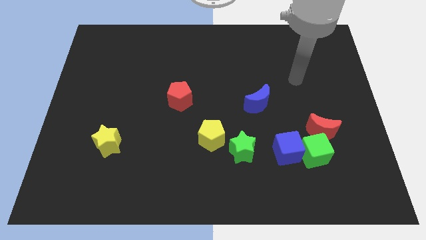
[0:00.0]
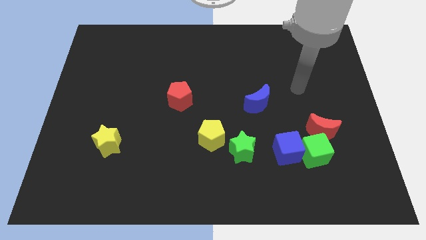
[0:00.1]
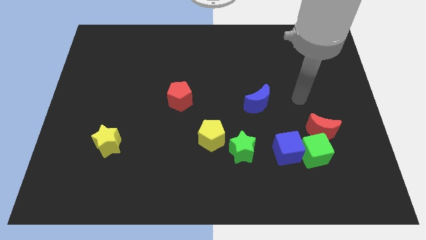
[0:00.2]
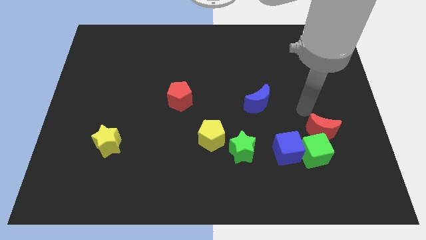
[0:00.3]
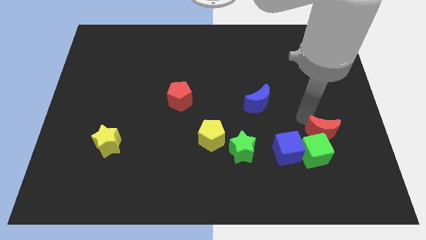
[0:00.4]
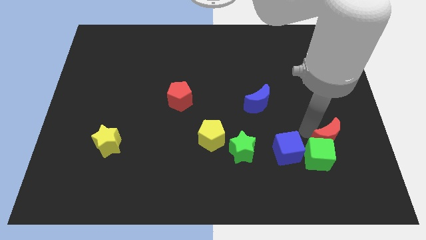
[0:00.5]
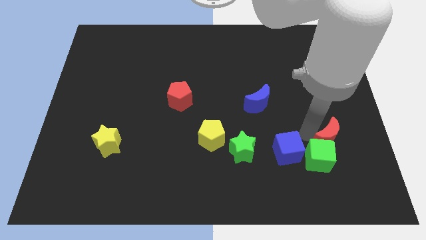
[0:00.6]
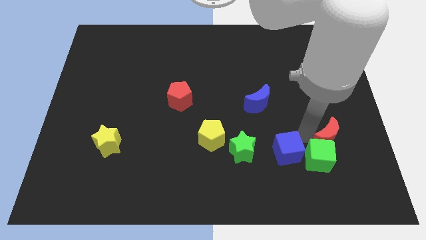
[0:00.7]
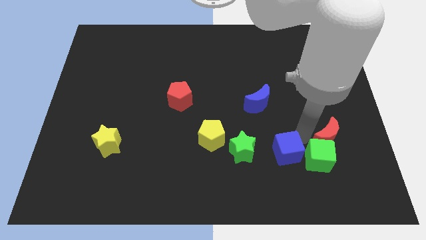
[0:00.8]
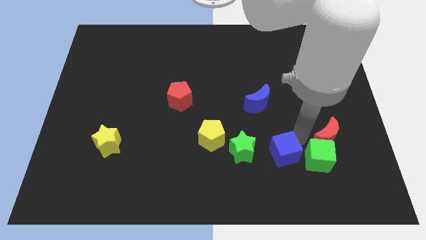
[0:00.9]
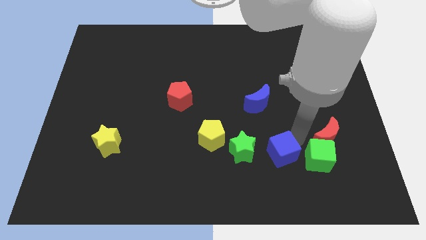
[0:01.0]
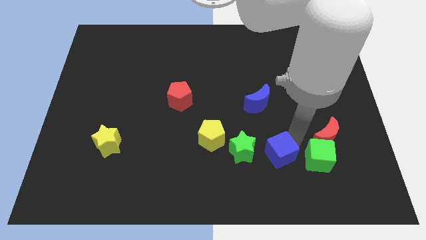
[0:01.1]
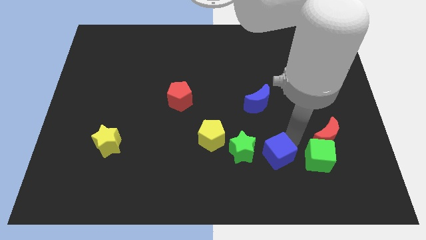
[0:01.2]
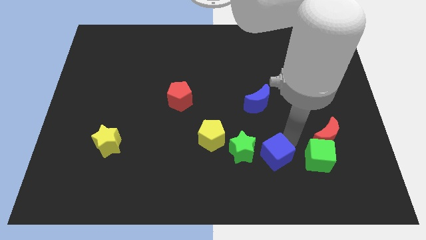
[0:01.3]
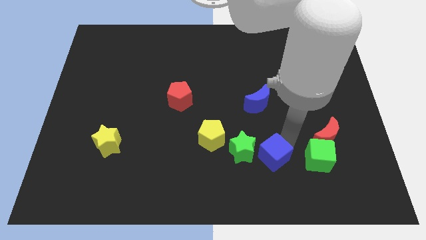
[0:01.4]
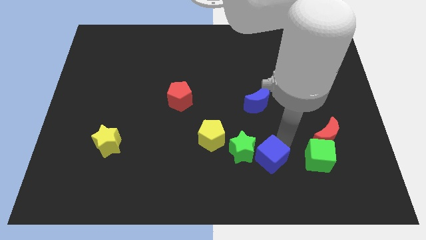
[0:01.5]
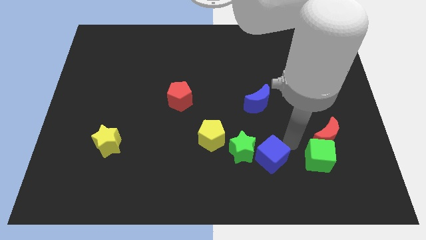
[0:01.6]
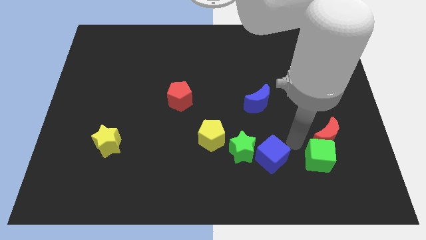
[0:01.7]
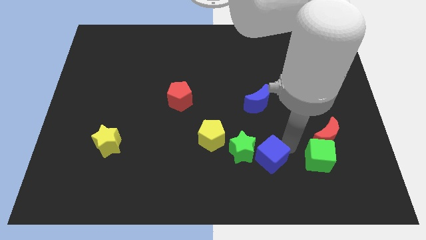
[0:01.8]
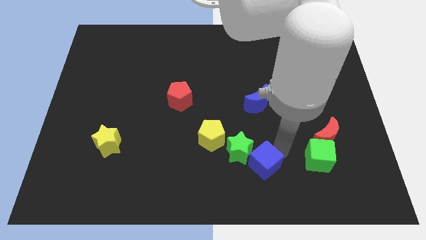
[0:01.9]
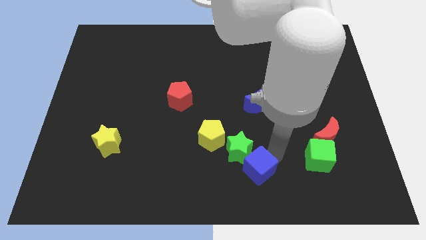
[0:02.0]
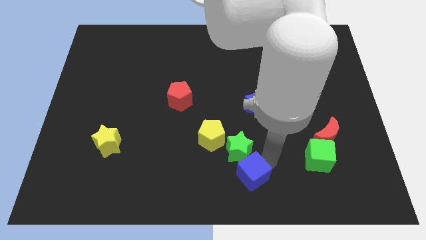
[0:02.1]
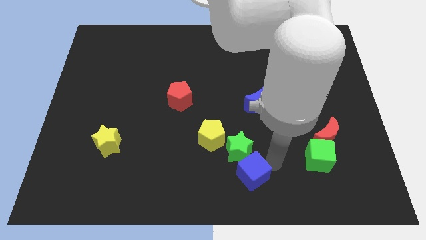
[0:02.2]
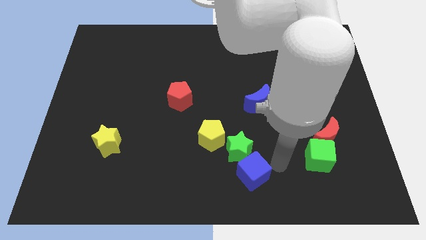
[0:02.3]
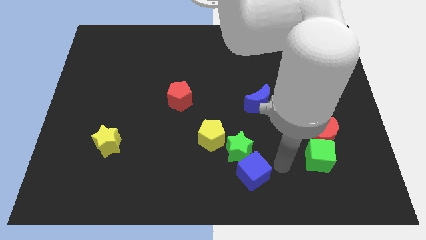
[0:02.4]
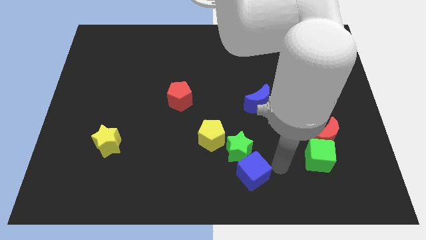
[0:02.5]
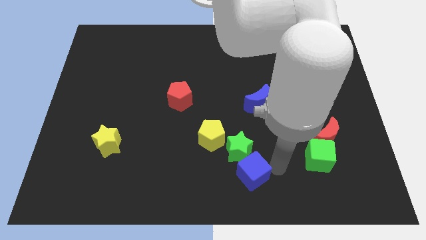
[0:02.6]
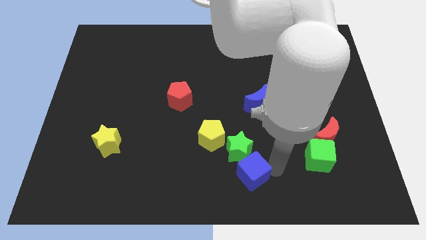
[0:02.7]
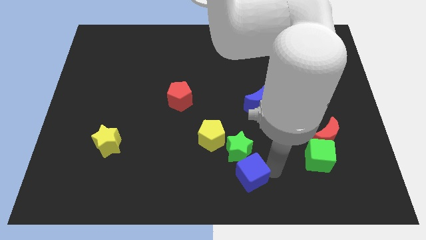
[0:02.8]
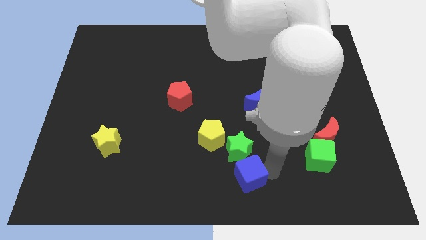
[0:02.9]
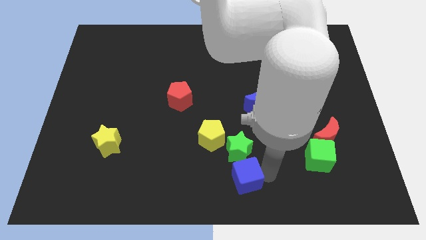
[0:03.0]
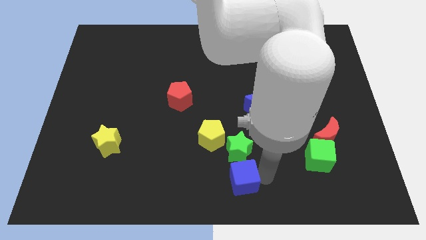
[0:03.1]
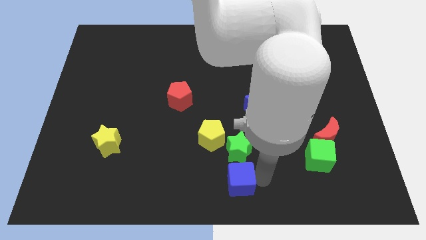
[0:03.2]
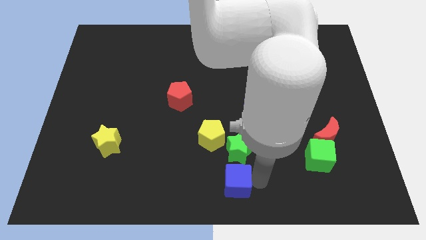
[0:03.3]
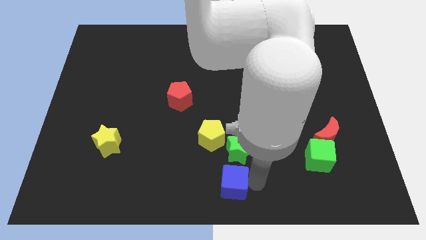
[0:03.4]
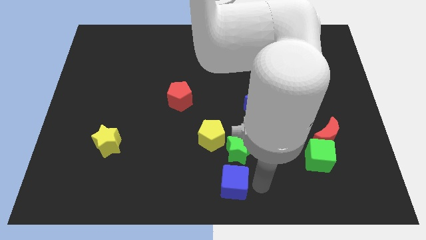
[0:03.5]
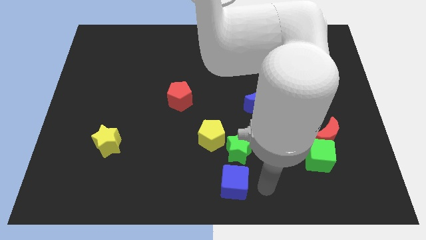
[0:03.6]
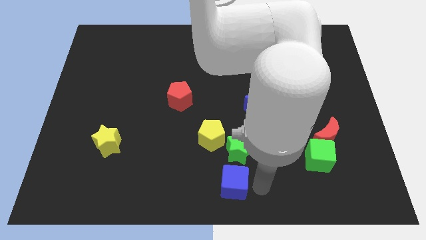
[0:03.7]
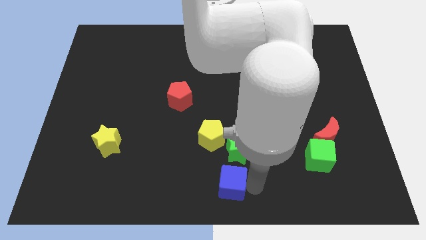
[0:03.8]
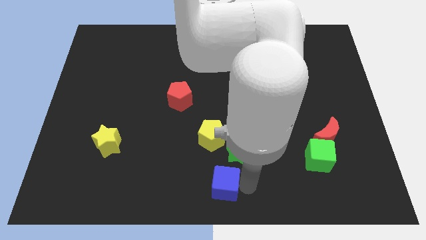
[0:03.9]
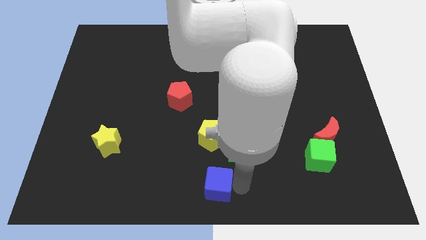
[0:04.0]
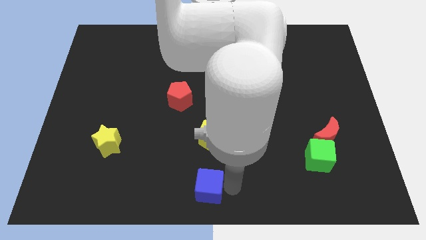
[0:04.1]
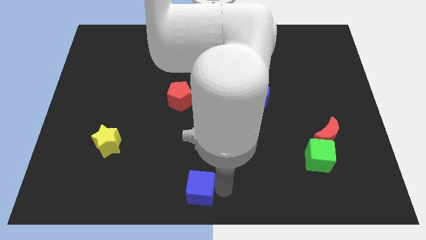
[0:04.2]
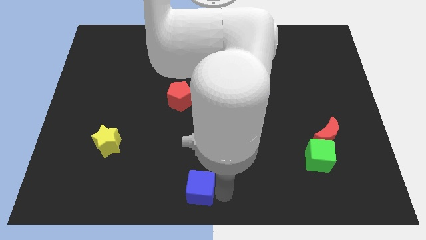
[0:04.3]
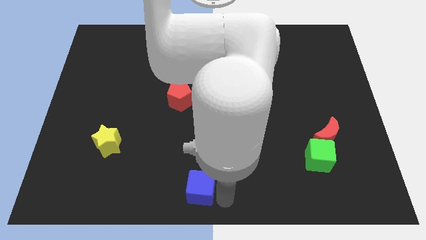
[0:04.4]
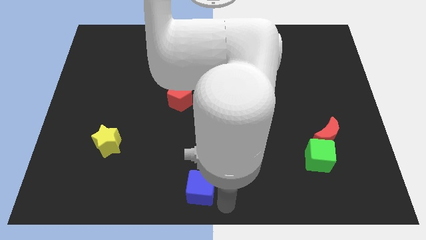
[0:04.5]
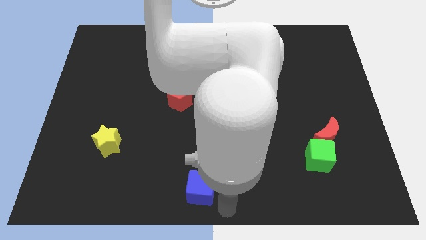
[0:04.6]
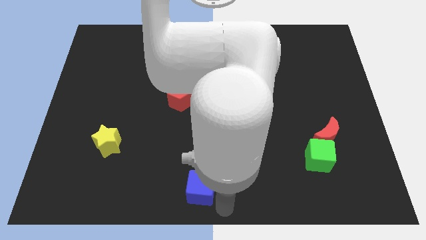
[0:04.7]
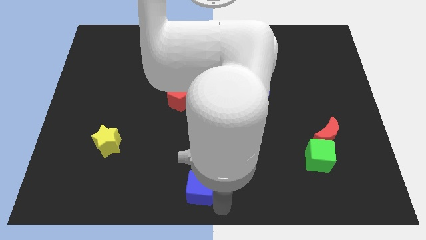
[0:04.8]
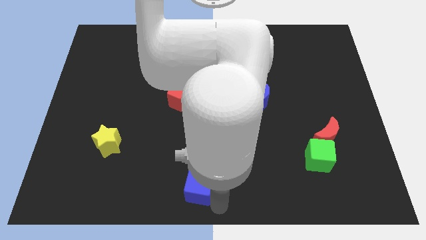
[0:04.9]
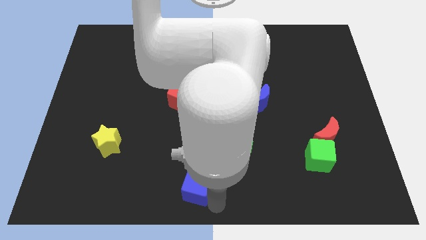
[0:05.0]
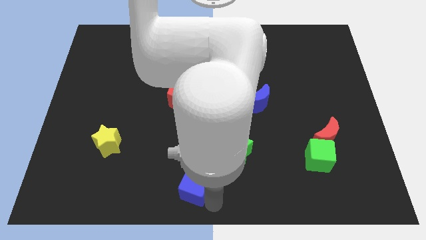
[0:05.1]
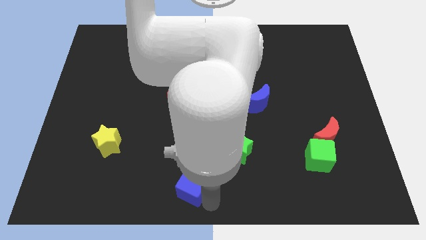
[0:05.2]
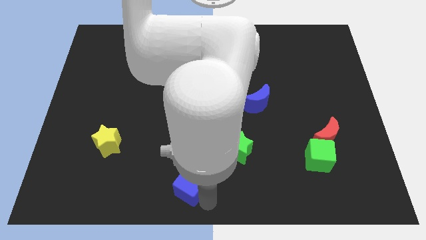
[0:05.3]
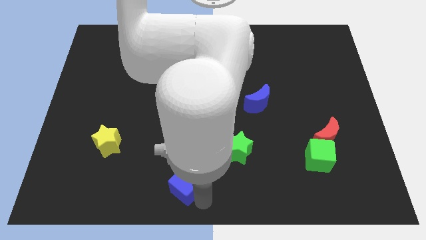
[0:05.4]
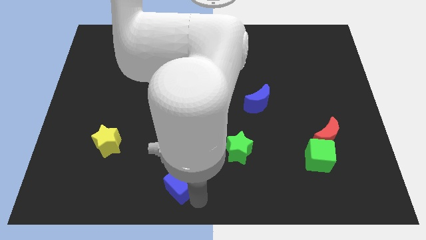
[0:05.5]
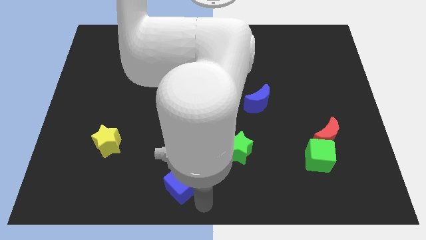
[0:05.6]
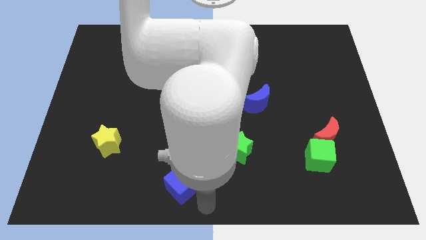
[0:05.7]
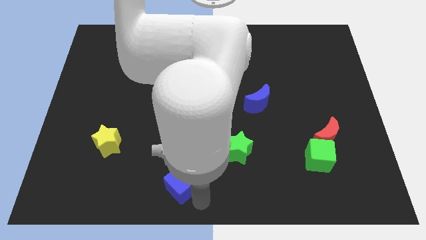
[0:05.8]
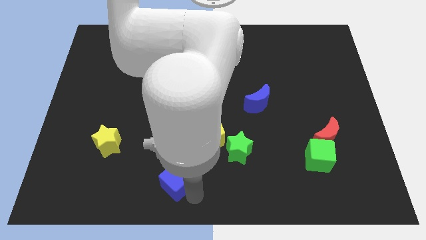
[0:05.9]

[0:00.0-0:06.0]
slide the blue cube to the left

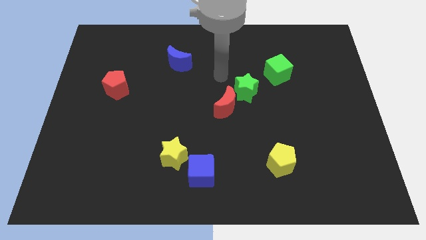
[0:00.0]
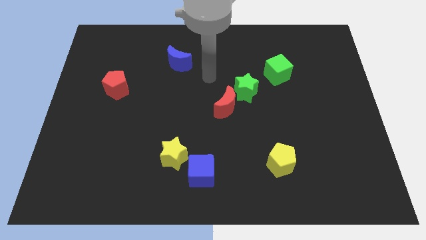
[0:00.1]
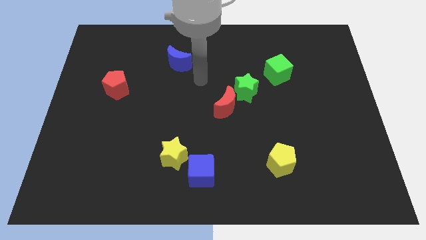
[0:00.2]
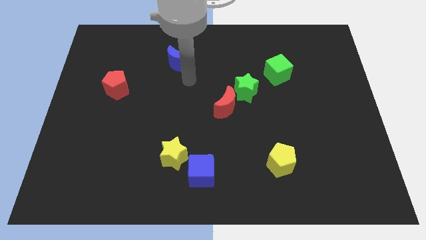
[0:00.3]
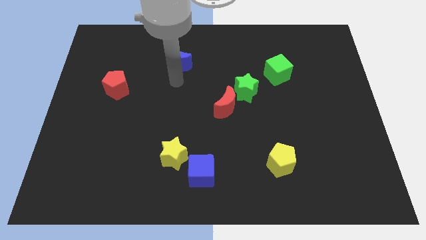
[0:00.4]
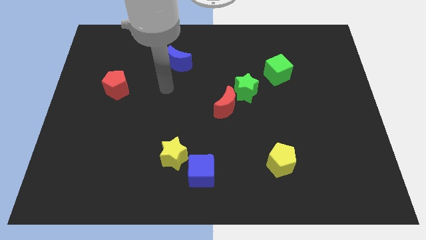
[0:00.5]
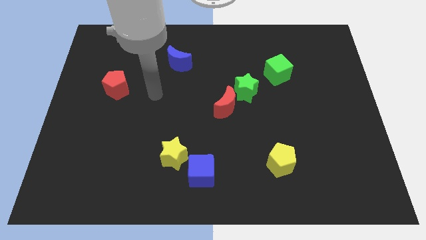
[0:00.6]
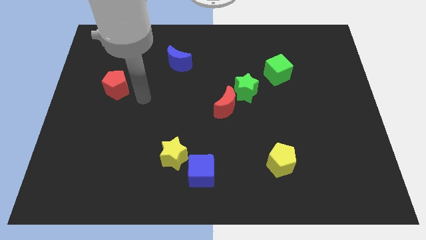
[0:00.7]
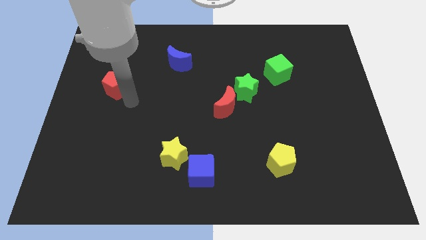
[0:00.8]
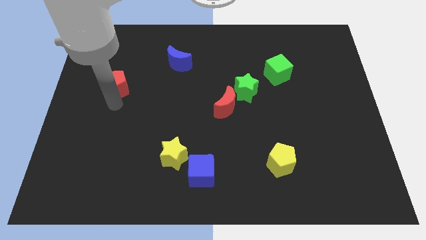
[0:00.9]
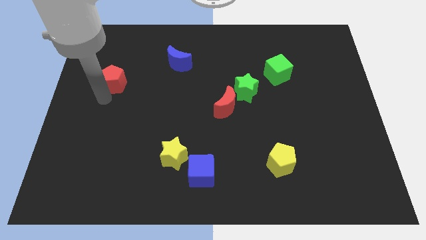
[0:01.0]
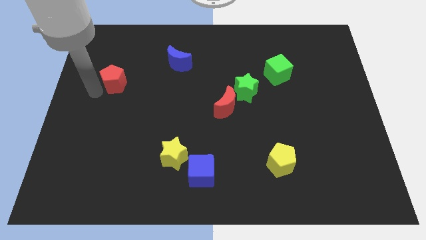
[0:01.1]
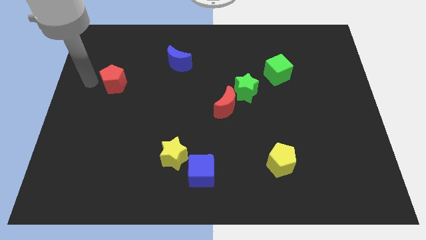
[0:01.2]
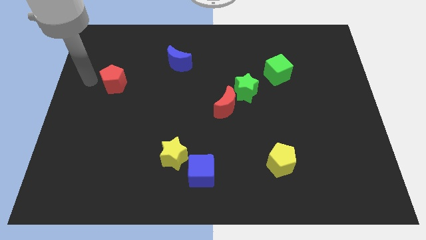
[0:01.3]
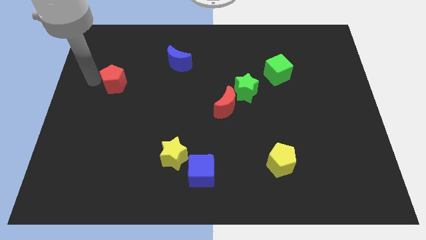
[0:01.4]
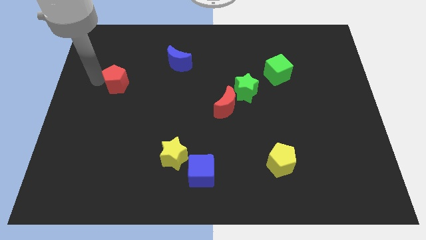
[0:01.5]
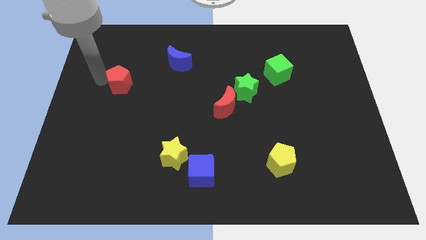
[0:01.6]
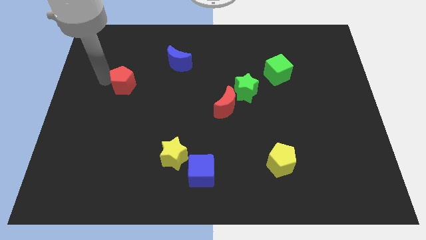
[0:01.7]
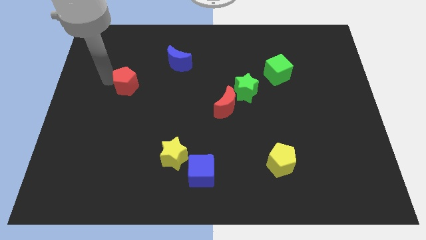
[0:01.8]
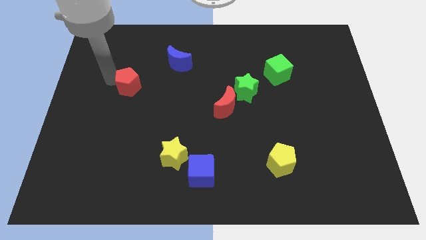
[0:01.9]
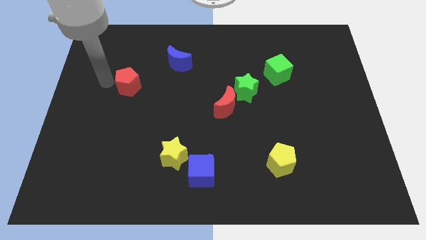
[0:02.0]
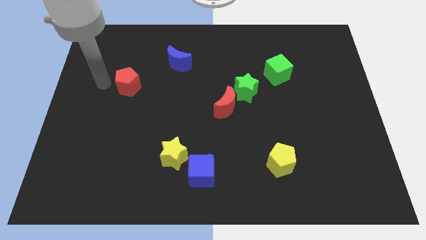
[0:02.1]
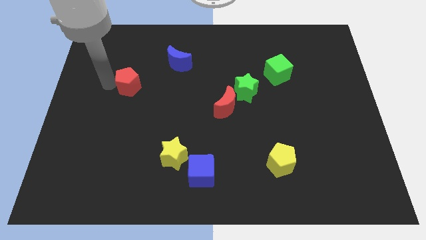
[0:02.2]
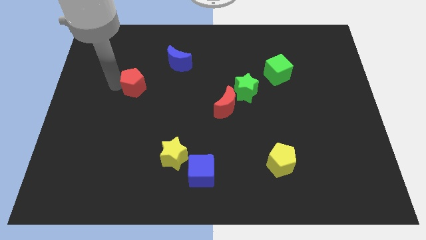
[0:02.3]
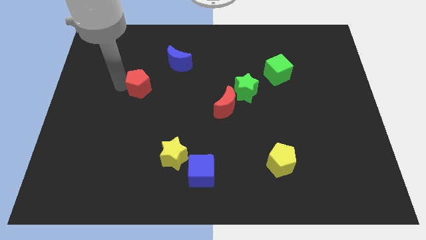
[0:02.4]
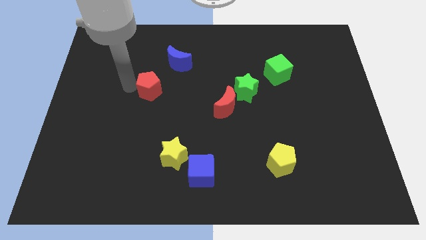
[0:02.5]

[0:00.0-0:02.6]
push the red pentagon to the right slightly
